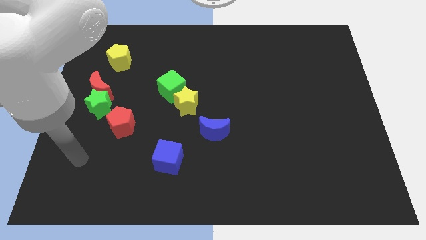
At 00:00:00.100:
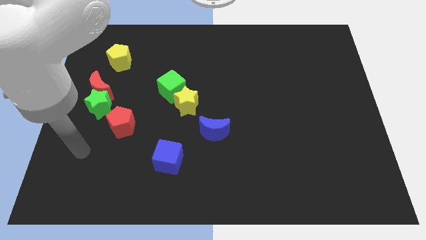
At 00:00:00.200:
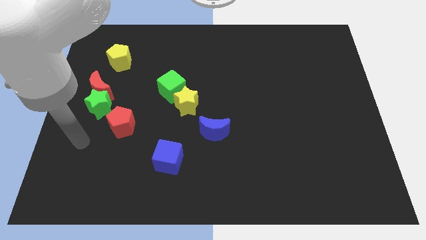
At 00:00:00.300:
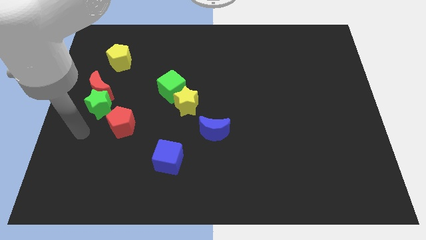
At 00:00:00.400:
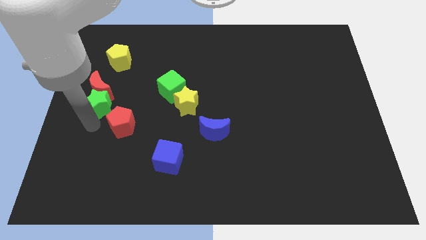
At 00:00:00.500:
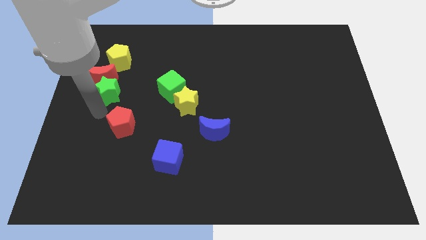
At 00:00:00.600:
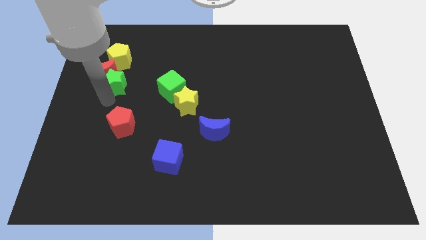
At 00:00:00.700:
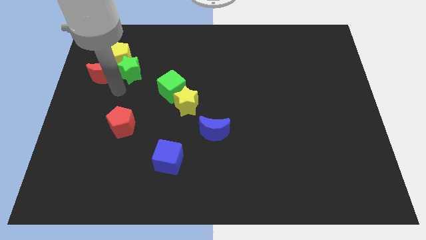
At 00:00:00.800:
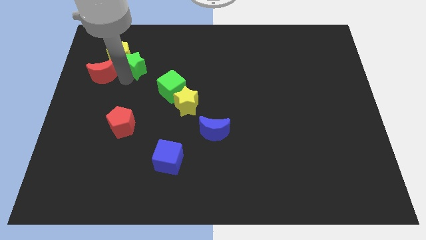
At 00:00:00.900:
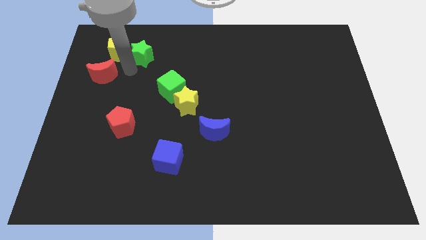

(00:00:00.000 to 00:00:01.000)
move the red moon away from the green star

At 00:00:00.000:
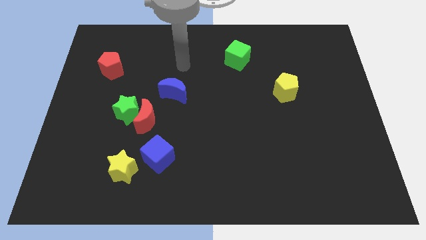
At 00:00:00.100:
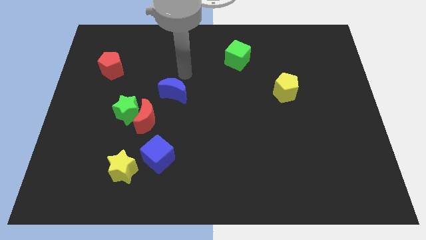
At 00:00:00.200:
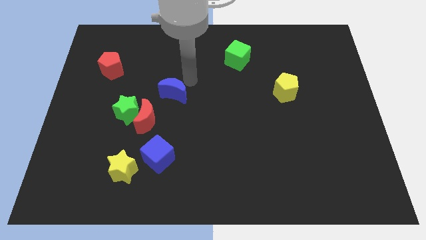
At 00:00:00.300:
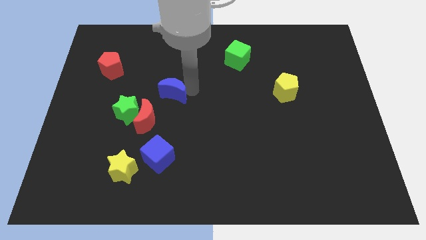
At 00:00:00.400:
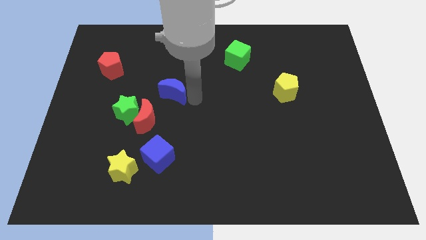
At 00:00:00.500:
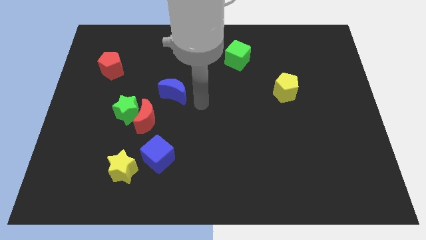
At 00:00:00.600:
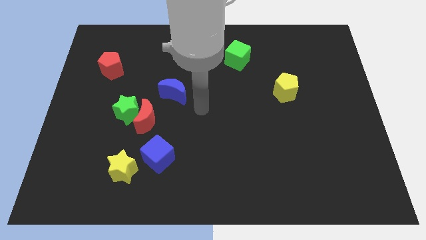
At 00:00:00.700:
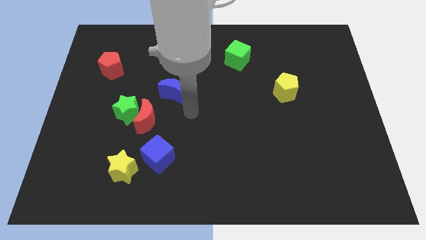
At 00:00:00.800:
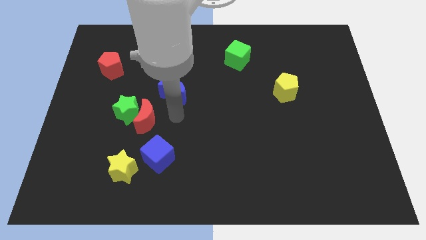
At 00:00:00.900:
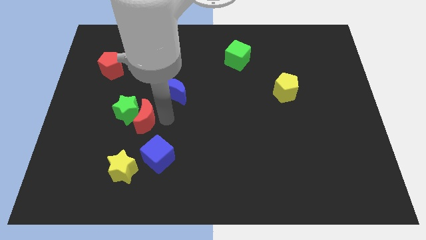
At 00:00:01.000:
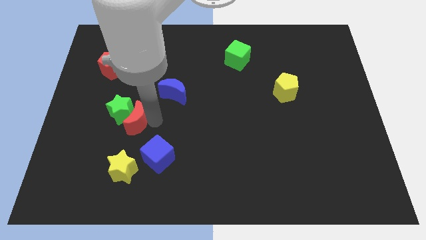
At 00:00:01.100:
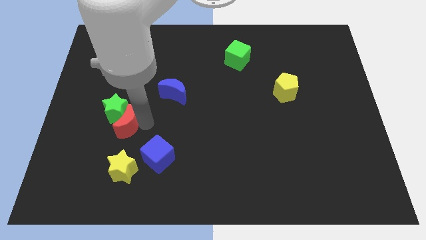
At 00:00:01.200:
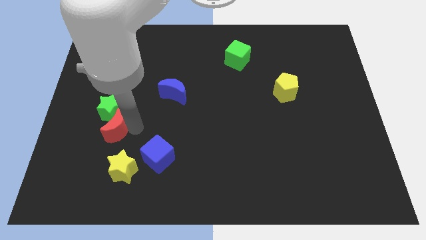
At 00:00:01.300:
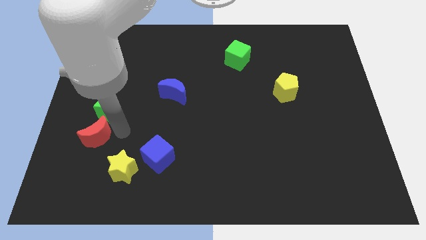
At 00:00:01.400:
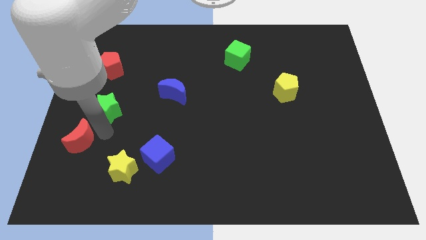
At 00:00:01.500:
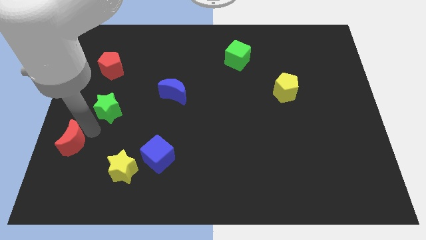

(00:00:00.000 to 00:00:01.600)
separate the green star from the red moon

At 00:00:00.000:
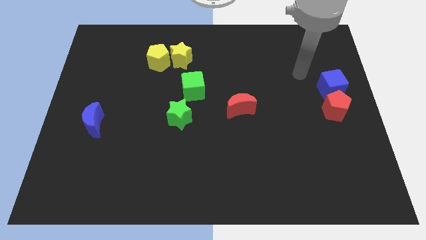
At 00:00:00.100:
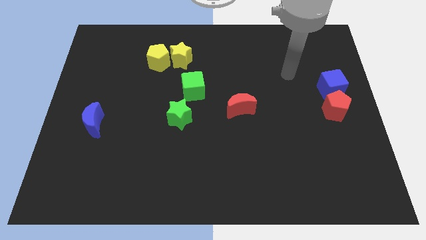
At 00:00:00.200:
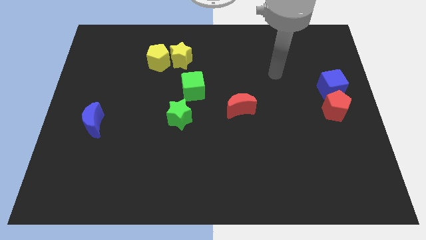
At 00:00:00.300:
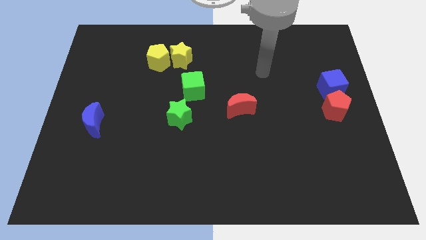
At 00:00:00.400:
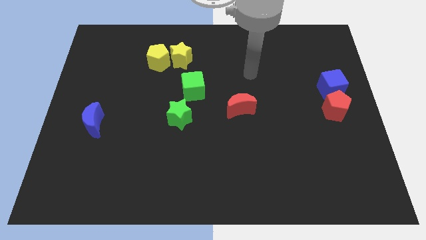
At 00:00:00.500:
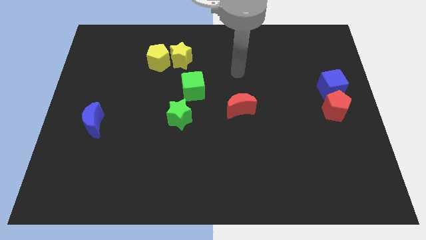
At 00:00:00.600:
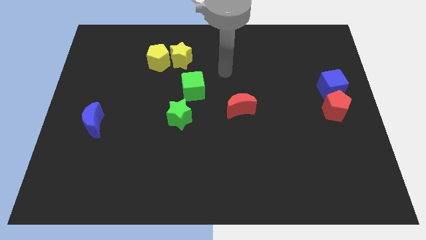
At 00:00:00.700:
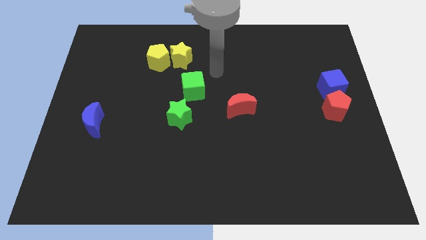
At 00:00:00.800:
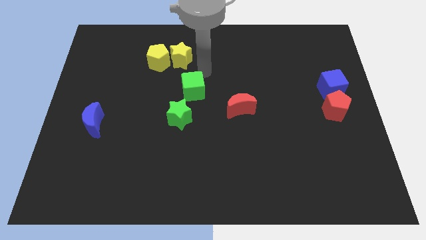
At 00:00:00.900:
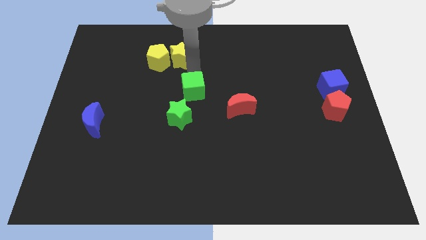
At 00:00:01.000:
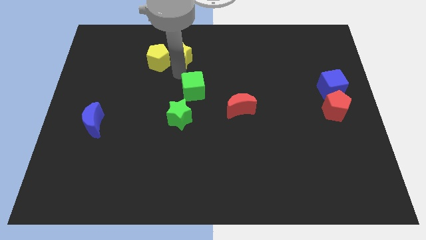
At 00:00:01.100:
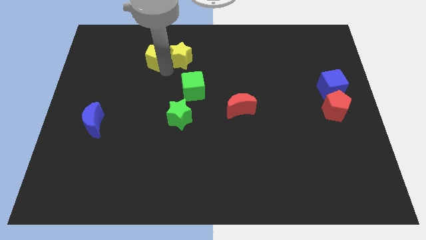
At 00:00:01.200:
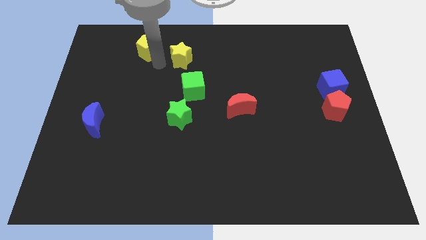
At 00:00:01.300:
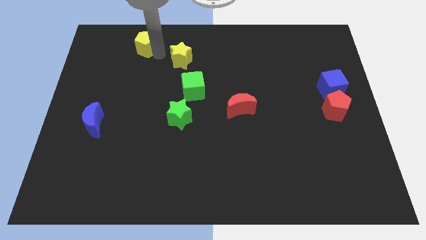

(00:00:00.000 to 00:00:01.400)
move the yellow star away from the yellow pentagon

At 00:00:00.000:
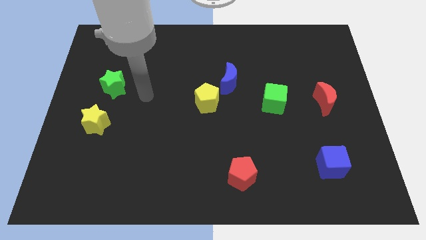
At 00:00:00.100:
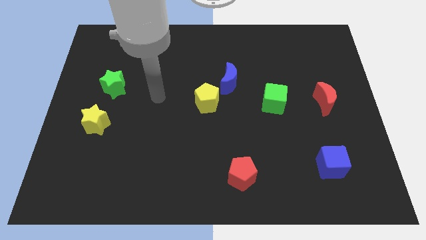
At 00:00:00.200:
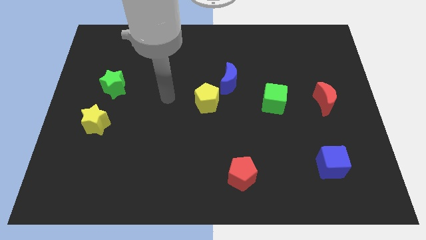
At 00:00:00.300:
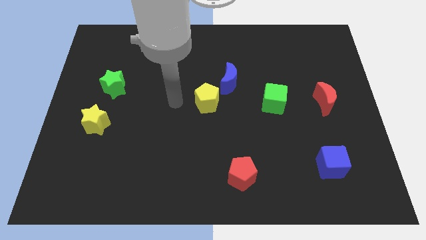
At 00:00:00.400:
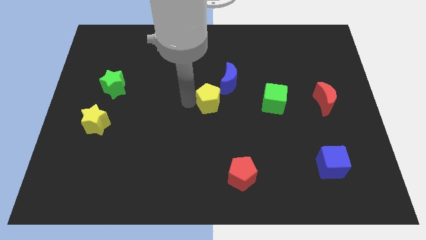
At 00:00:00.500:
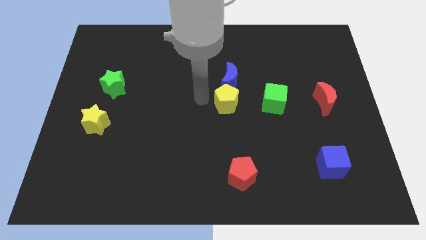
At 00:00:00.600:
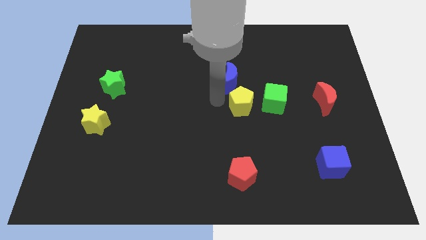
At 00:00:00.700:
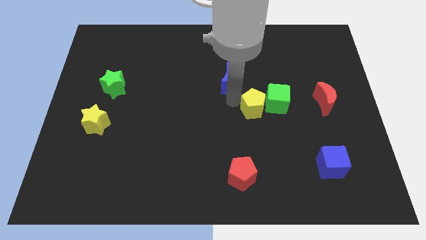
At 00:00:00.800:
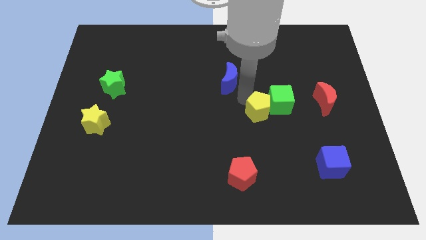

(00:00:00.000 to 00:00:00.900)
pull the blue moon apart from the yellow pentagon

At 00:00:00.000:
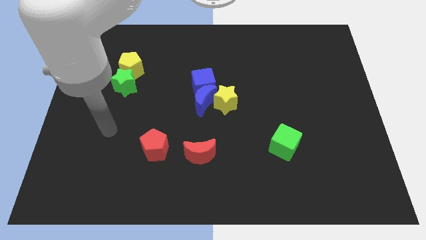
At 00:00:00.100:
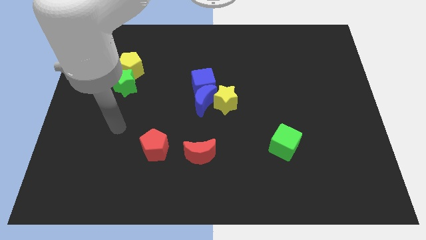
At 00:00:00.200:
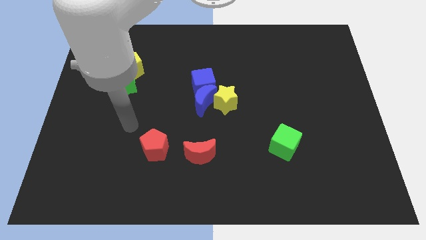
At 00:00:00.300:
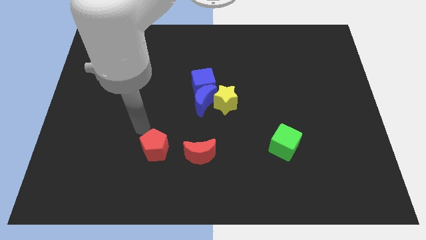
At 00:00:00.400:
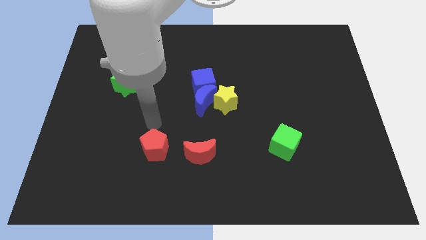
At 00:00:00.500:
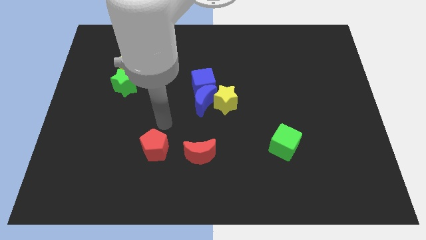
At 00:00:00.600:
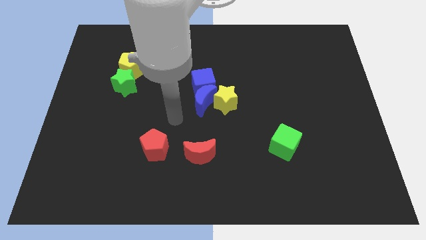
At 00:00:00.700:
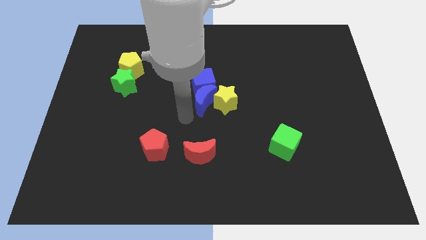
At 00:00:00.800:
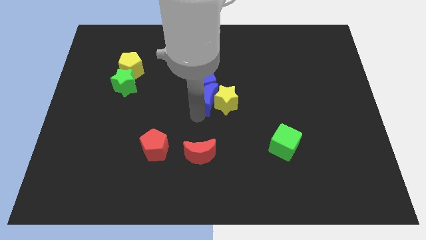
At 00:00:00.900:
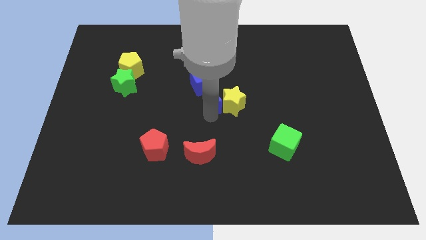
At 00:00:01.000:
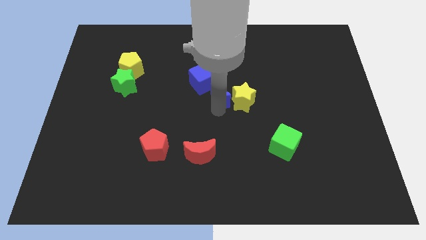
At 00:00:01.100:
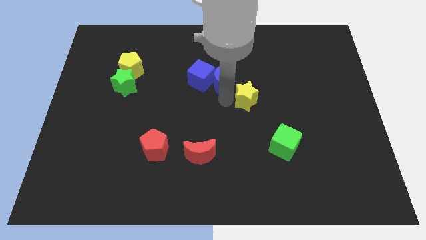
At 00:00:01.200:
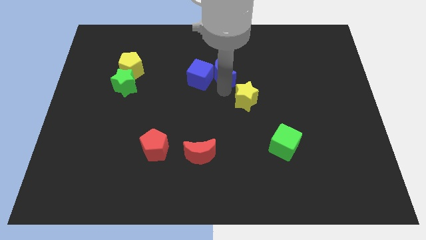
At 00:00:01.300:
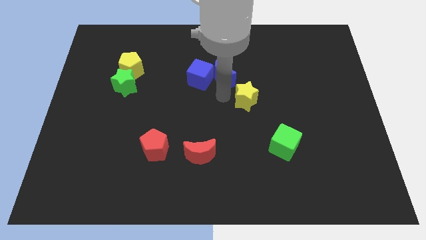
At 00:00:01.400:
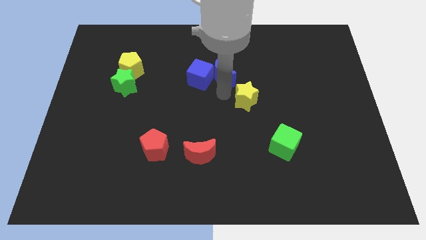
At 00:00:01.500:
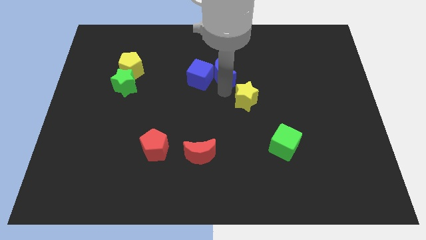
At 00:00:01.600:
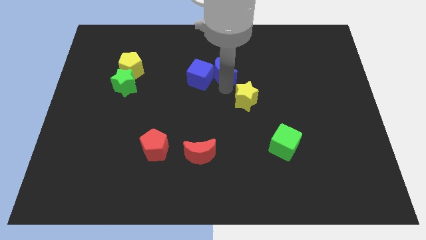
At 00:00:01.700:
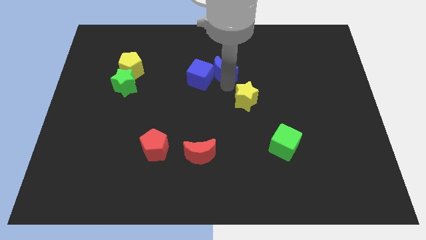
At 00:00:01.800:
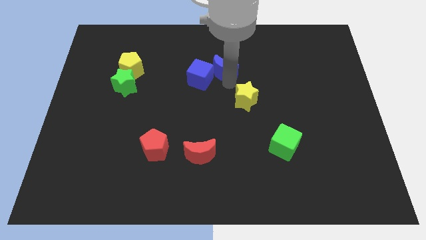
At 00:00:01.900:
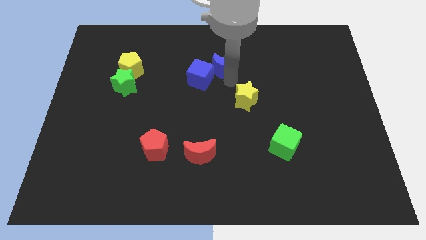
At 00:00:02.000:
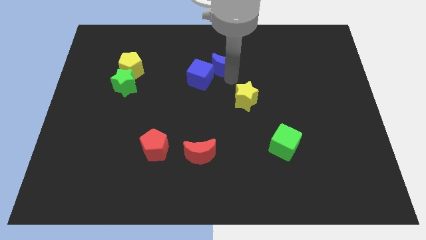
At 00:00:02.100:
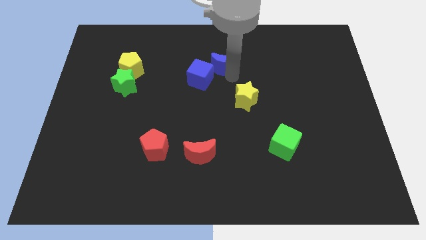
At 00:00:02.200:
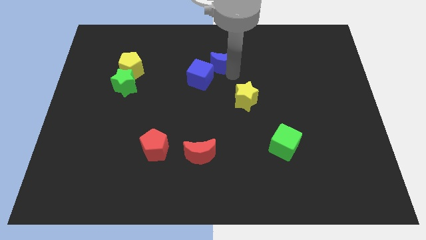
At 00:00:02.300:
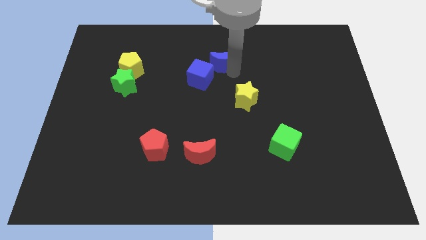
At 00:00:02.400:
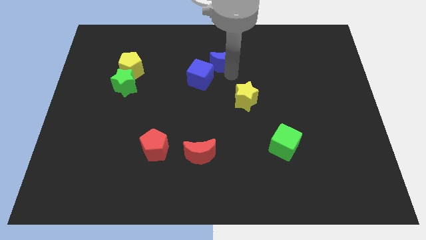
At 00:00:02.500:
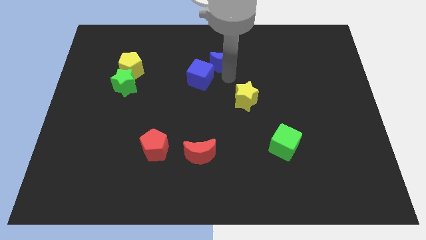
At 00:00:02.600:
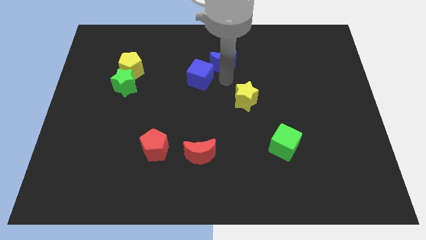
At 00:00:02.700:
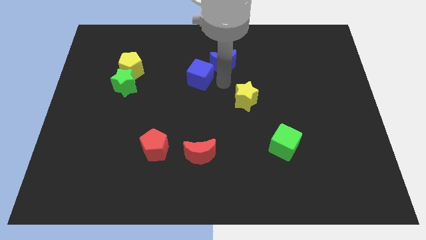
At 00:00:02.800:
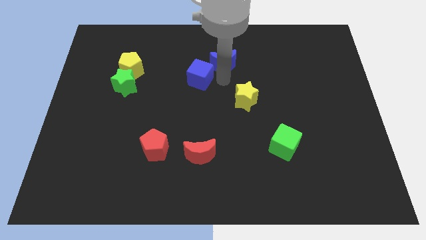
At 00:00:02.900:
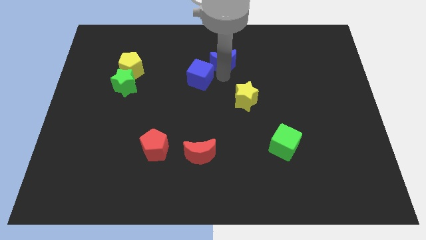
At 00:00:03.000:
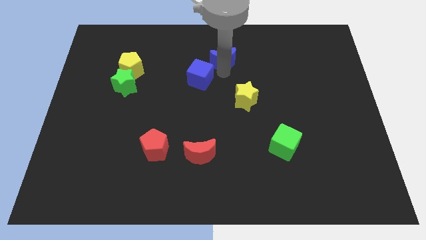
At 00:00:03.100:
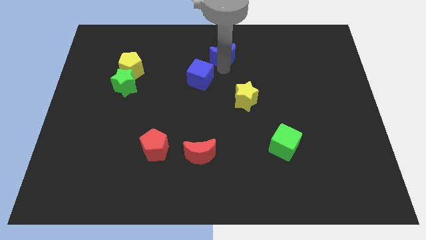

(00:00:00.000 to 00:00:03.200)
move the blue moon away from the blue cube and yellow star

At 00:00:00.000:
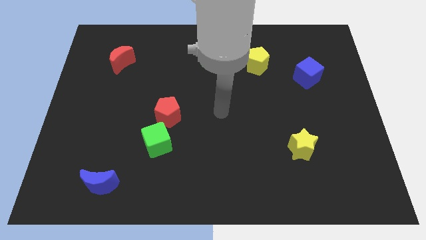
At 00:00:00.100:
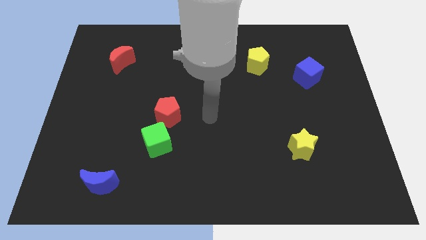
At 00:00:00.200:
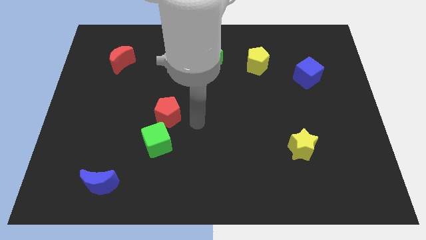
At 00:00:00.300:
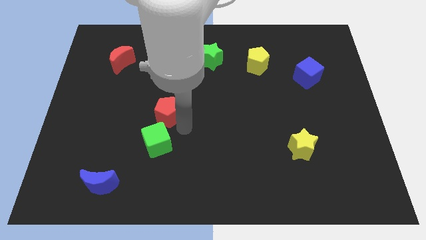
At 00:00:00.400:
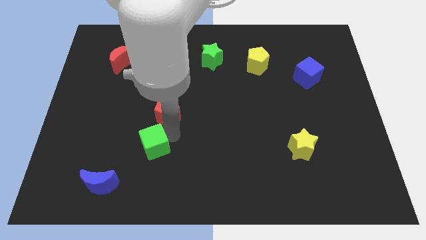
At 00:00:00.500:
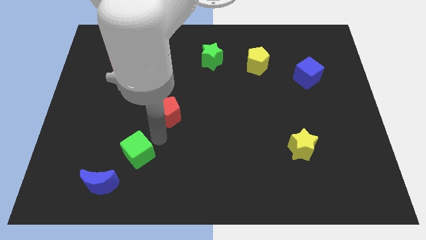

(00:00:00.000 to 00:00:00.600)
move the red pentagon away from the green cube

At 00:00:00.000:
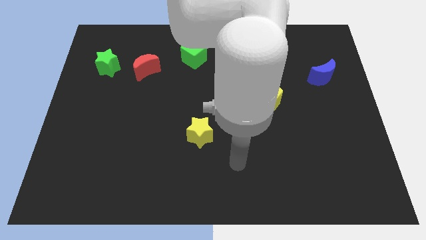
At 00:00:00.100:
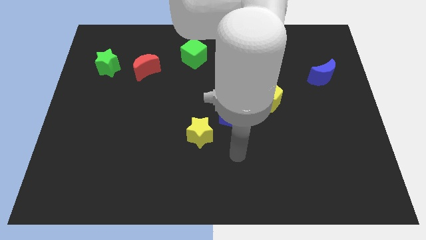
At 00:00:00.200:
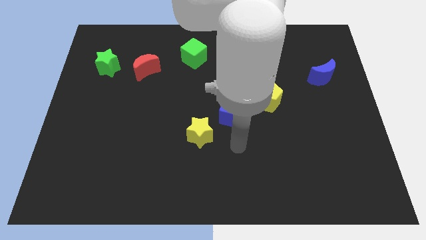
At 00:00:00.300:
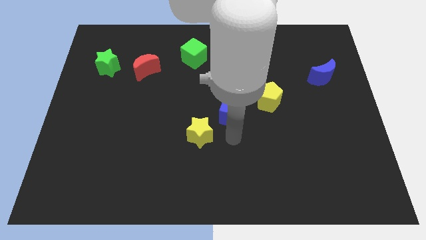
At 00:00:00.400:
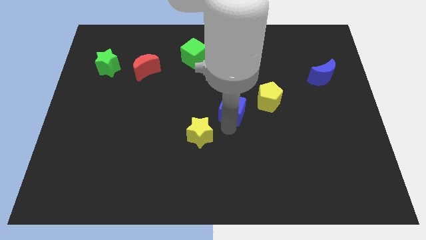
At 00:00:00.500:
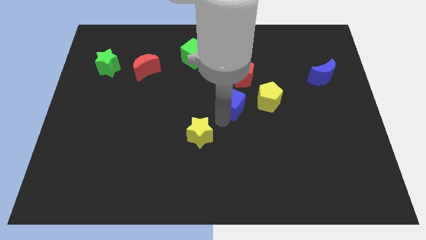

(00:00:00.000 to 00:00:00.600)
pull the yellow star apart from the blue cube
